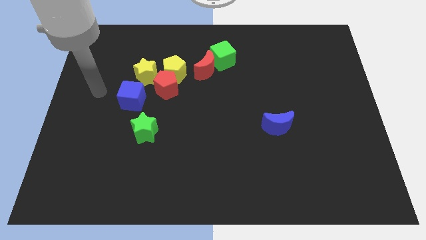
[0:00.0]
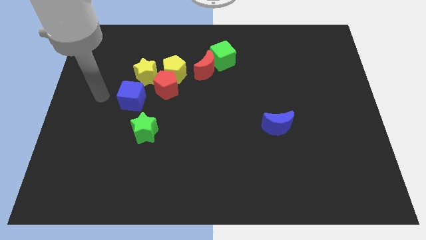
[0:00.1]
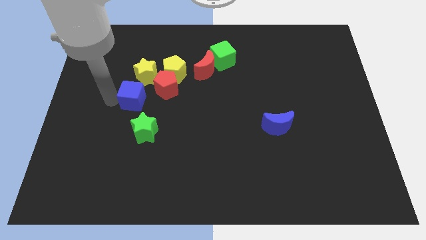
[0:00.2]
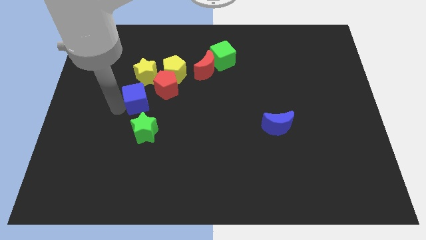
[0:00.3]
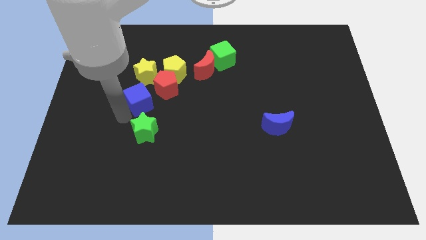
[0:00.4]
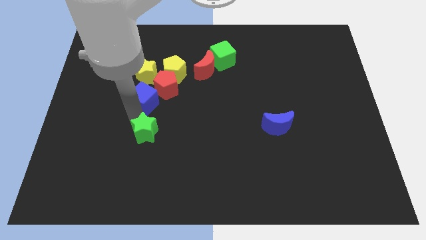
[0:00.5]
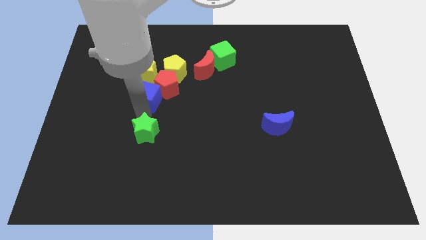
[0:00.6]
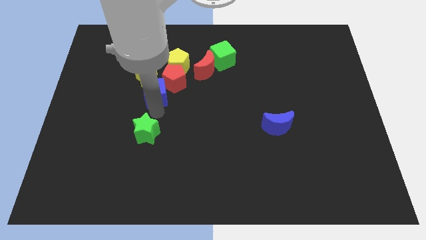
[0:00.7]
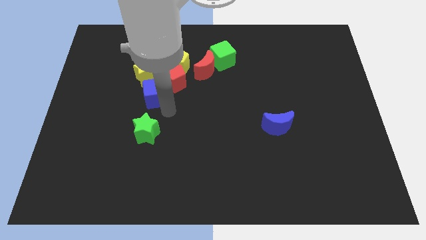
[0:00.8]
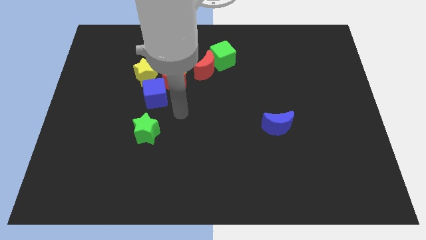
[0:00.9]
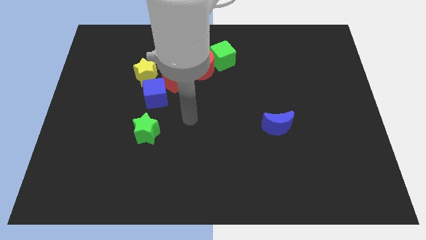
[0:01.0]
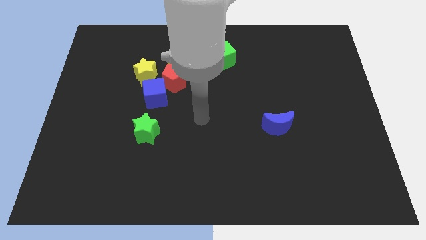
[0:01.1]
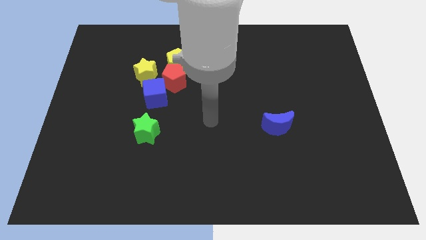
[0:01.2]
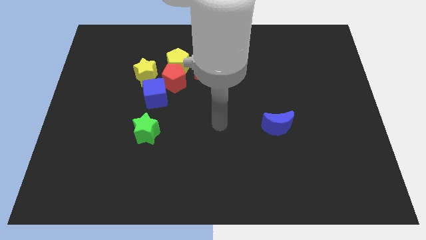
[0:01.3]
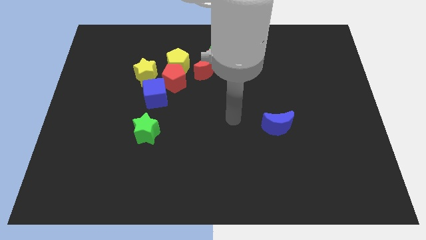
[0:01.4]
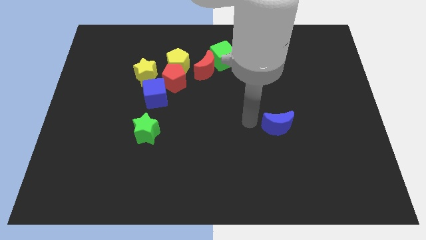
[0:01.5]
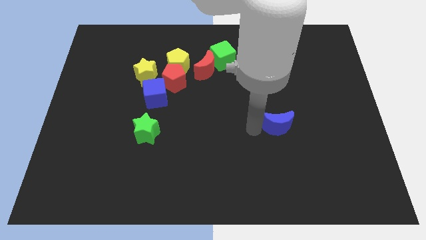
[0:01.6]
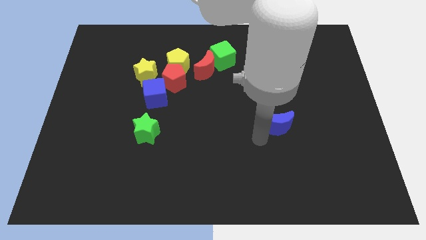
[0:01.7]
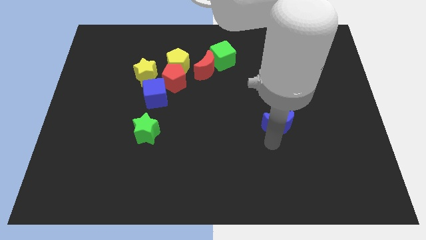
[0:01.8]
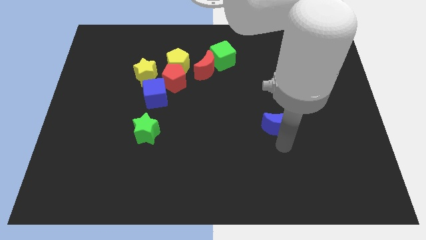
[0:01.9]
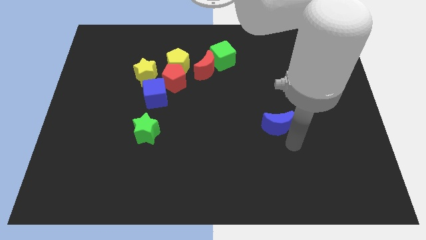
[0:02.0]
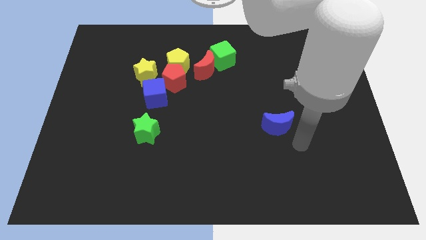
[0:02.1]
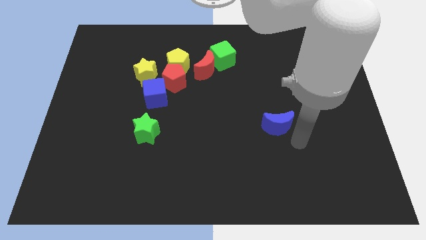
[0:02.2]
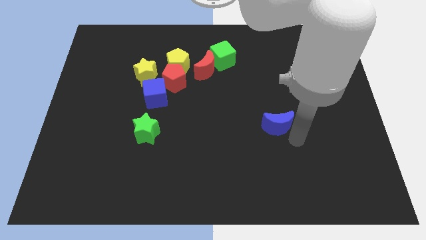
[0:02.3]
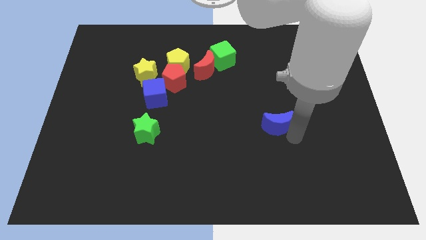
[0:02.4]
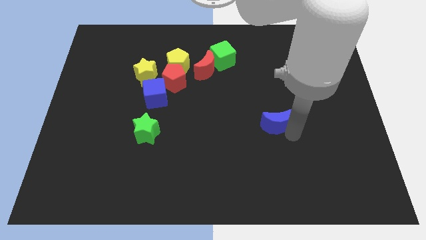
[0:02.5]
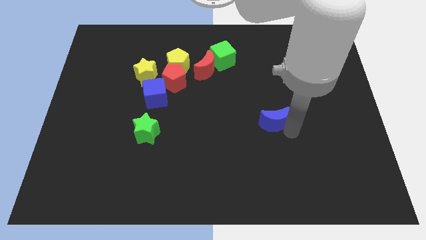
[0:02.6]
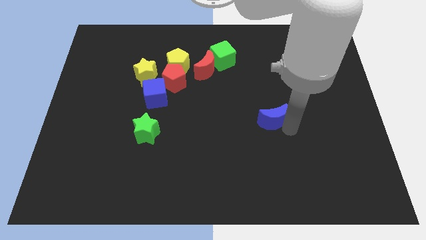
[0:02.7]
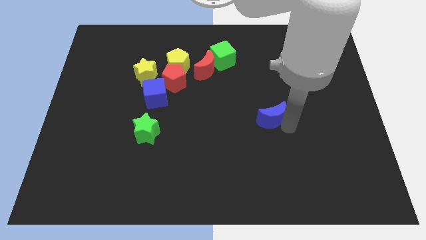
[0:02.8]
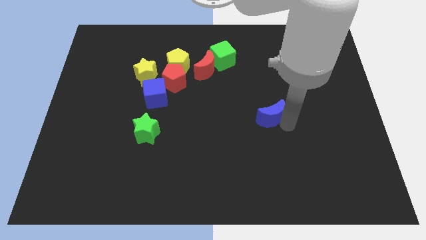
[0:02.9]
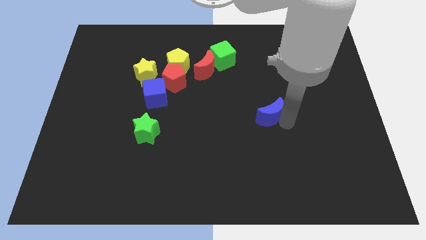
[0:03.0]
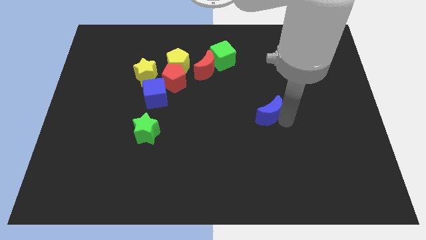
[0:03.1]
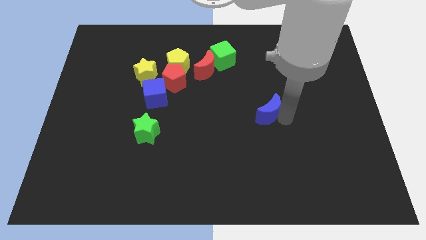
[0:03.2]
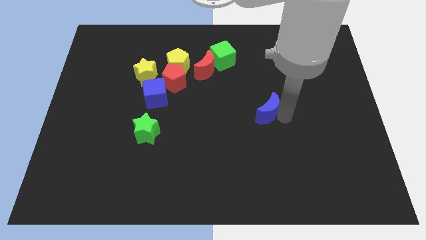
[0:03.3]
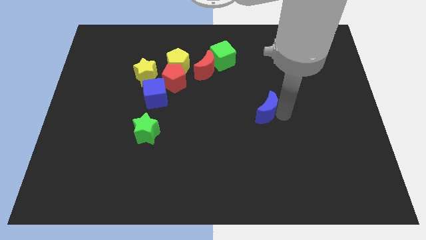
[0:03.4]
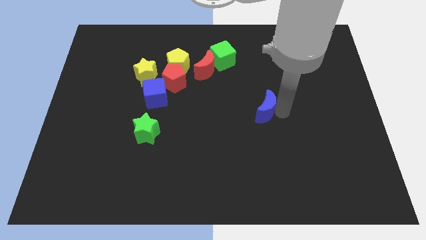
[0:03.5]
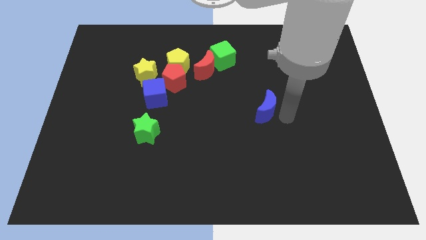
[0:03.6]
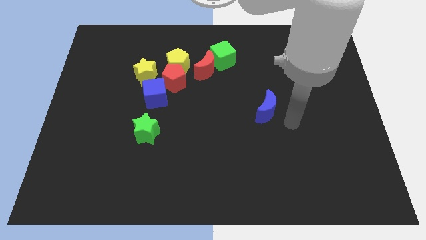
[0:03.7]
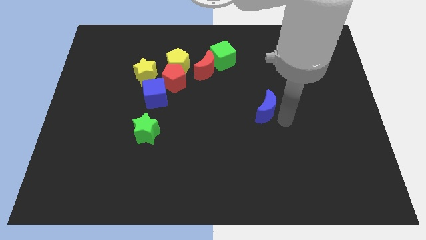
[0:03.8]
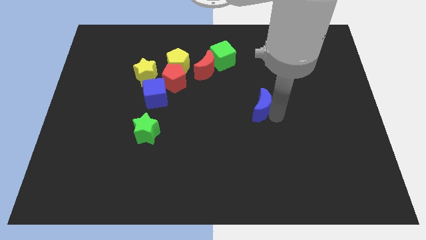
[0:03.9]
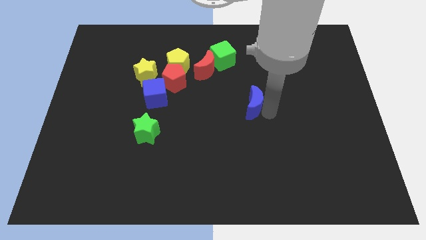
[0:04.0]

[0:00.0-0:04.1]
move the blue moon up and to the left diagonally a little

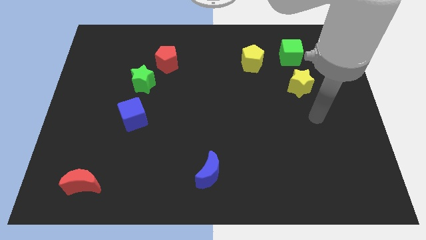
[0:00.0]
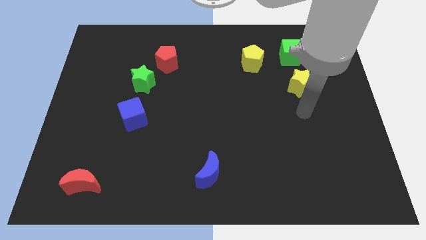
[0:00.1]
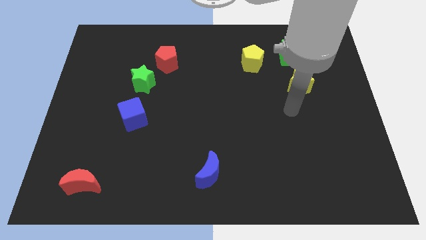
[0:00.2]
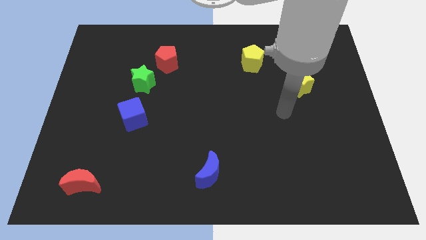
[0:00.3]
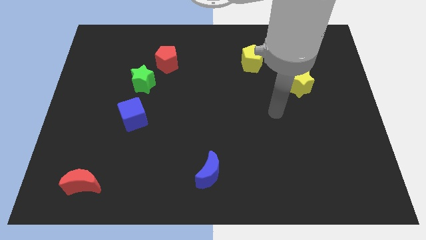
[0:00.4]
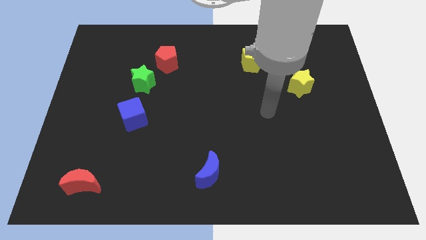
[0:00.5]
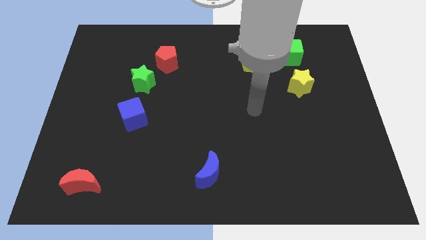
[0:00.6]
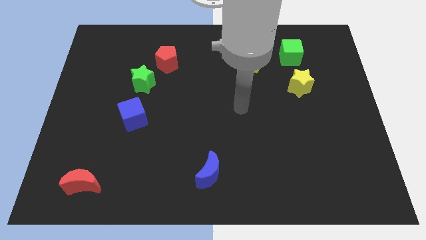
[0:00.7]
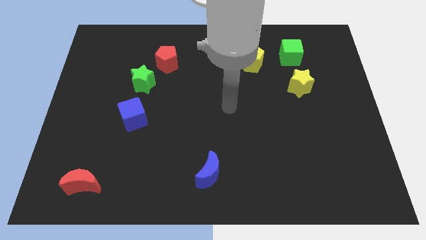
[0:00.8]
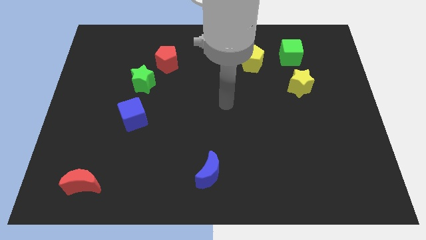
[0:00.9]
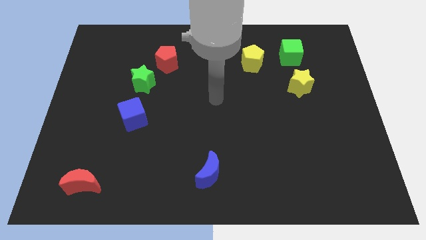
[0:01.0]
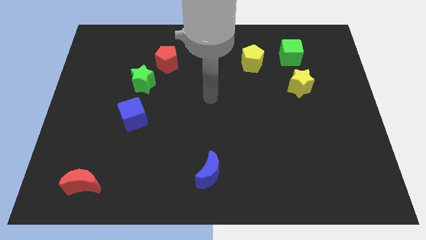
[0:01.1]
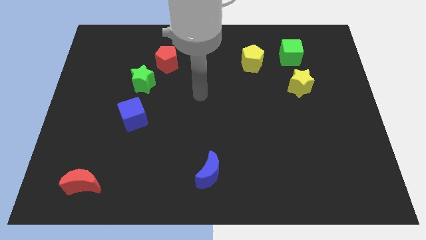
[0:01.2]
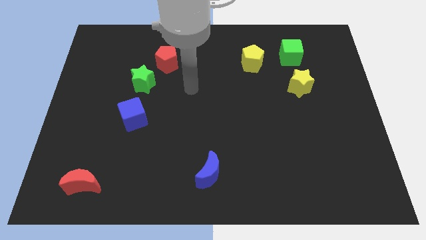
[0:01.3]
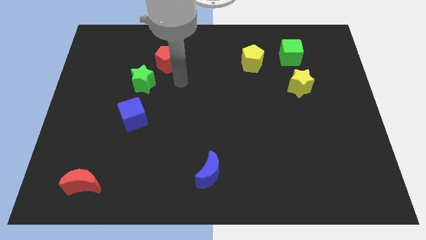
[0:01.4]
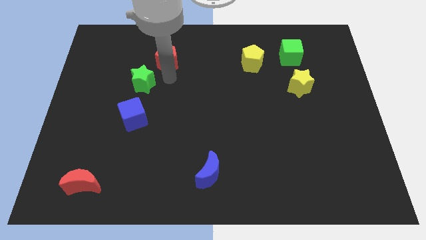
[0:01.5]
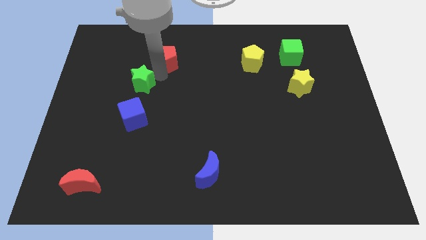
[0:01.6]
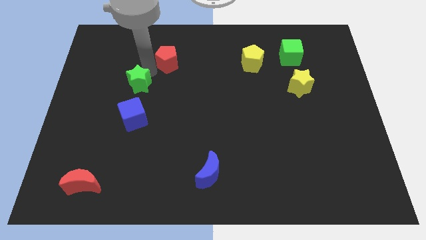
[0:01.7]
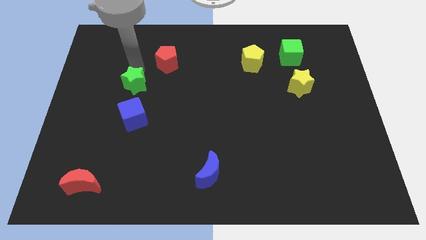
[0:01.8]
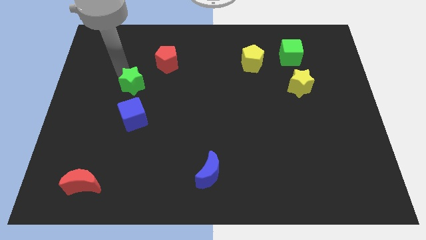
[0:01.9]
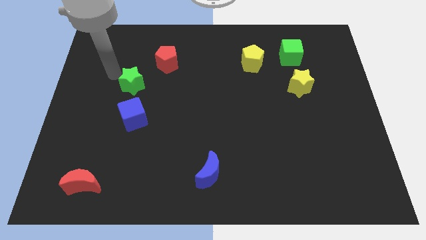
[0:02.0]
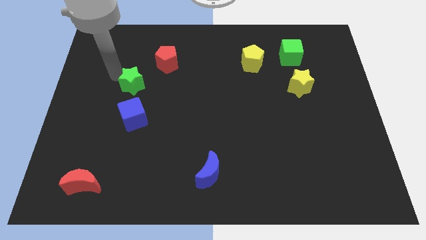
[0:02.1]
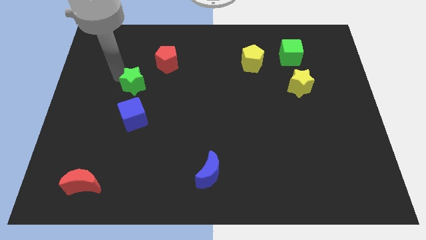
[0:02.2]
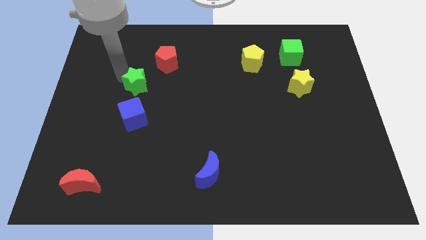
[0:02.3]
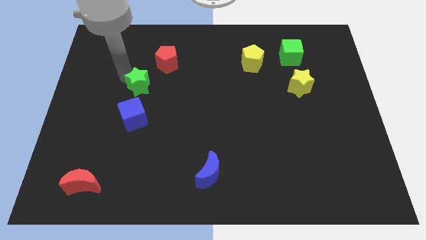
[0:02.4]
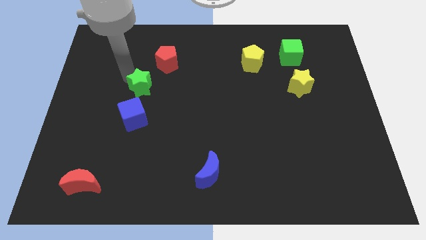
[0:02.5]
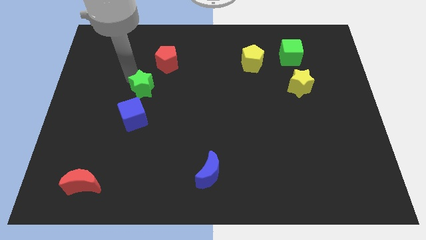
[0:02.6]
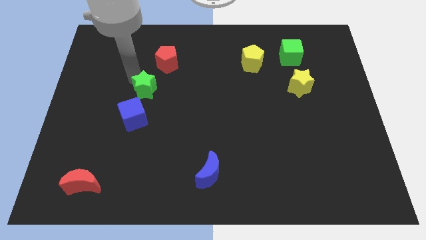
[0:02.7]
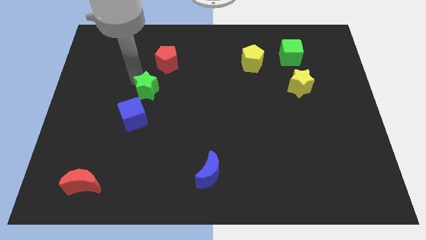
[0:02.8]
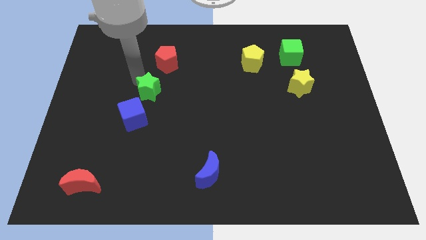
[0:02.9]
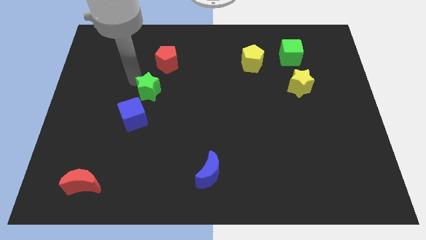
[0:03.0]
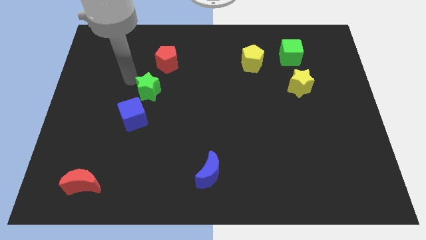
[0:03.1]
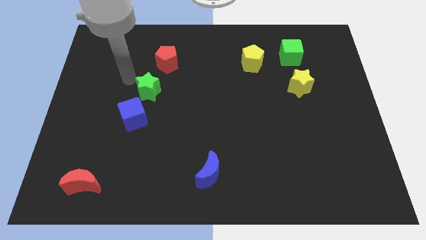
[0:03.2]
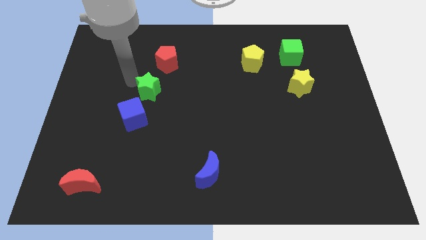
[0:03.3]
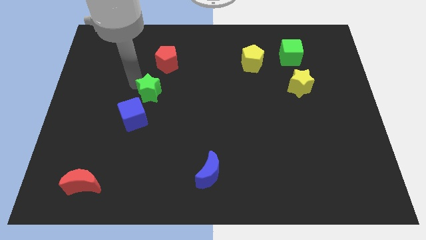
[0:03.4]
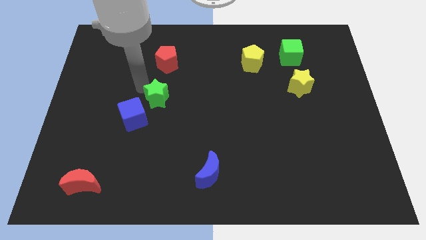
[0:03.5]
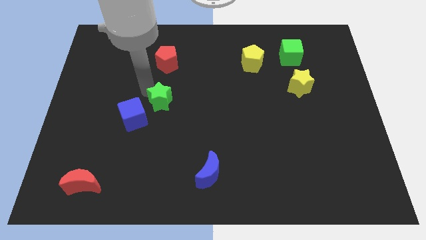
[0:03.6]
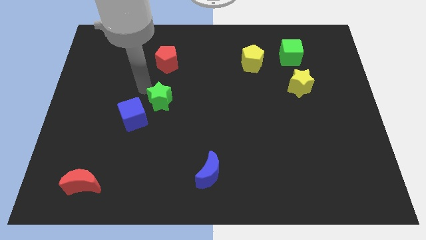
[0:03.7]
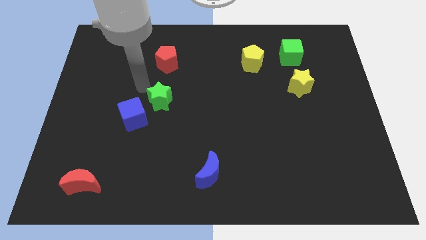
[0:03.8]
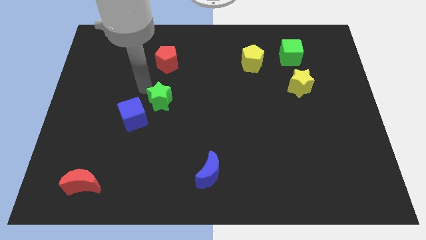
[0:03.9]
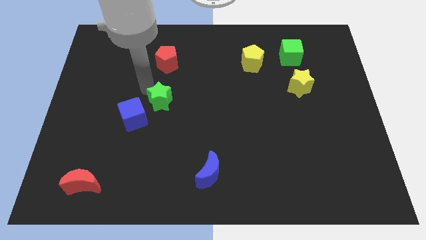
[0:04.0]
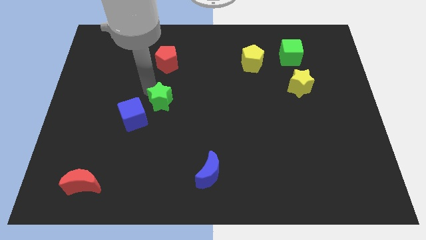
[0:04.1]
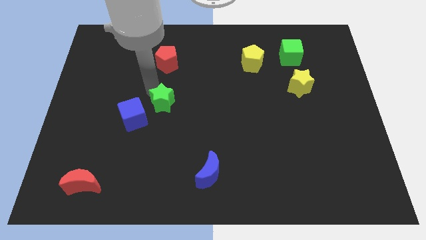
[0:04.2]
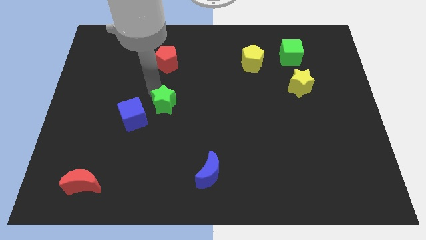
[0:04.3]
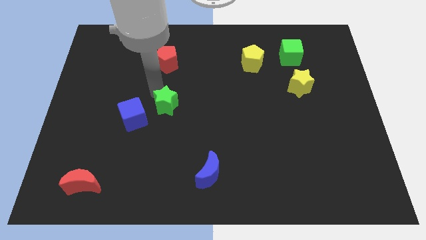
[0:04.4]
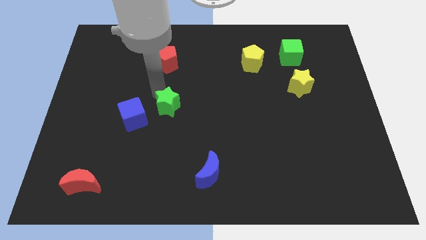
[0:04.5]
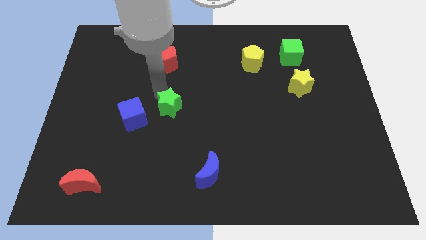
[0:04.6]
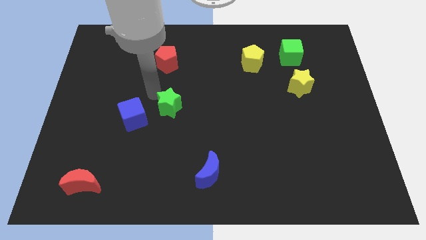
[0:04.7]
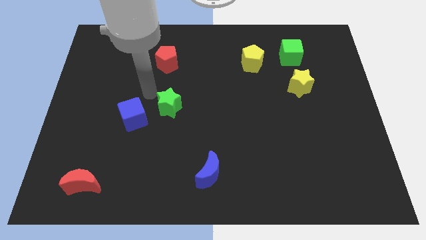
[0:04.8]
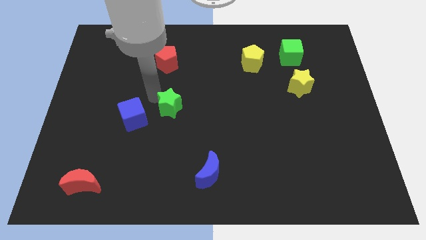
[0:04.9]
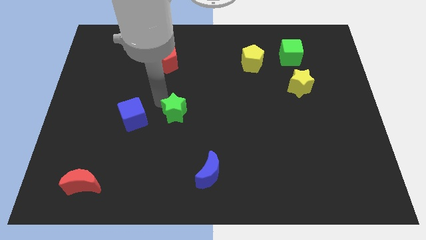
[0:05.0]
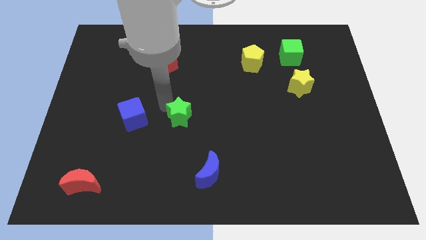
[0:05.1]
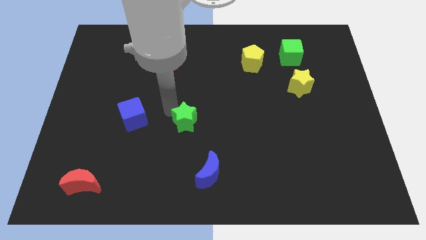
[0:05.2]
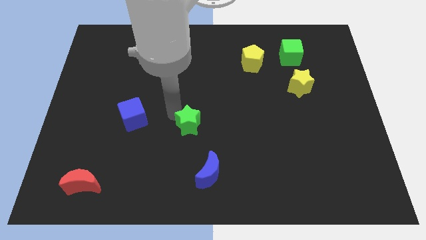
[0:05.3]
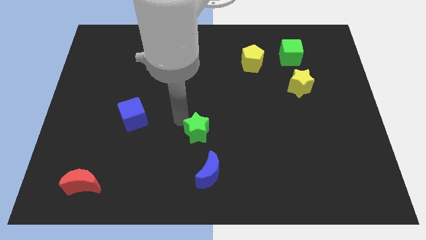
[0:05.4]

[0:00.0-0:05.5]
move the green star downwards and right
